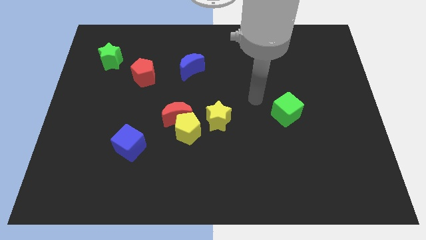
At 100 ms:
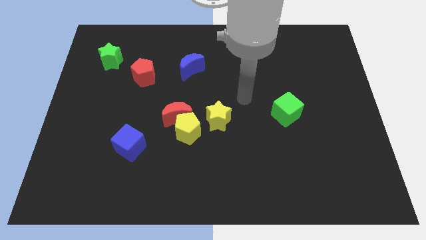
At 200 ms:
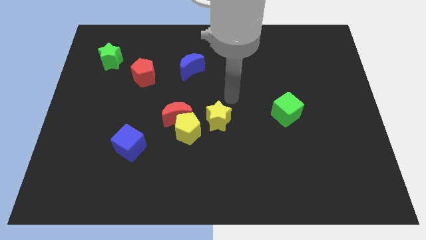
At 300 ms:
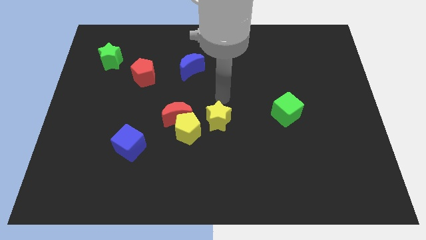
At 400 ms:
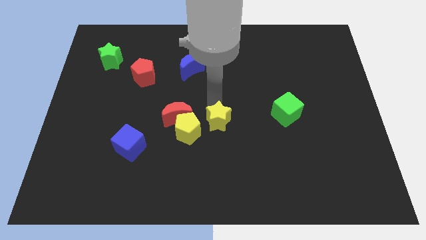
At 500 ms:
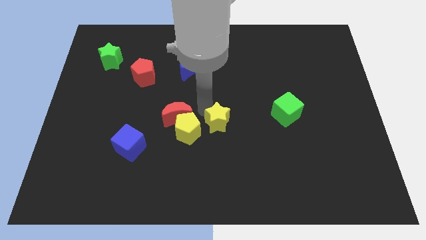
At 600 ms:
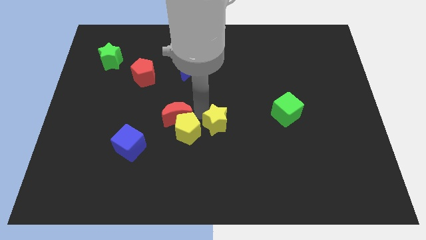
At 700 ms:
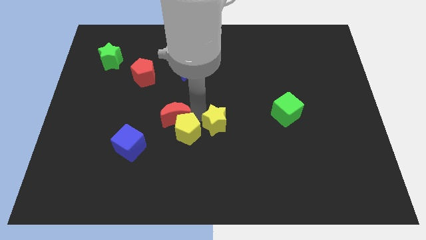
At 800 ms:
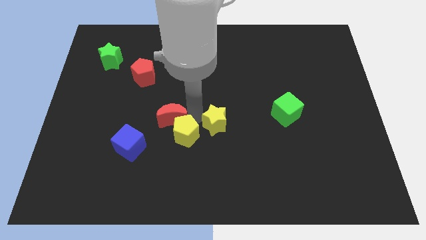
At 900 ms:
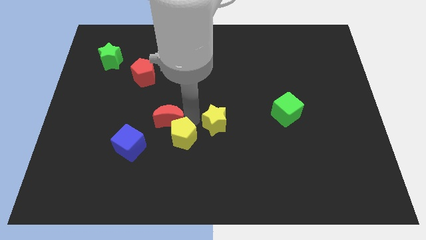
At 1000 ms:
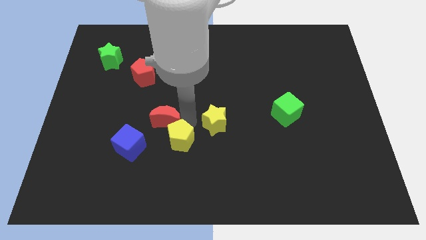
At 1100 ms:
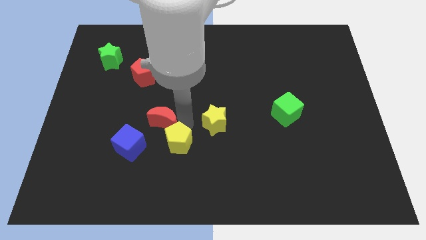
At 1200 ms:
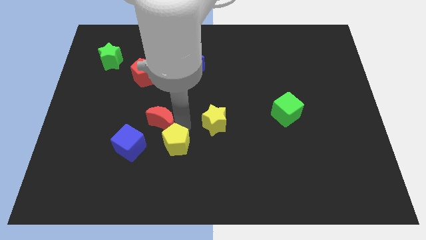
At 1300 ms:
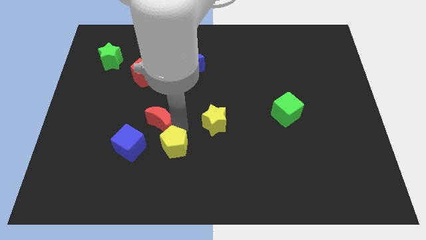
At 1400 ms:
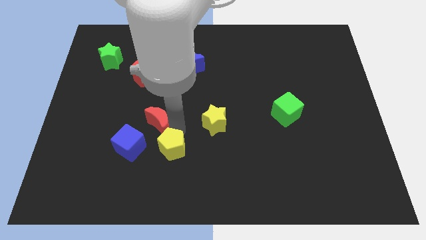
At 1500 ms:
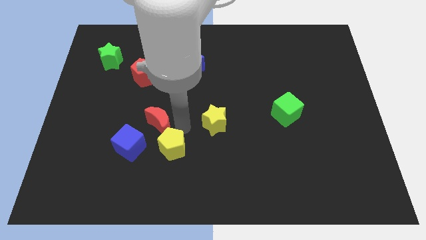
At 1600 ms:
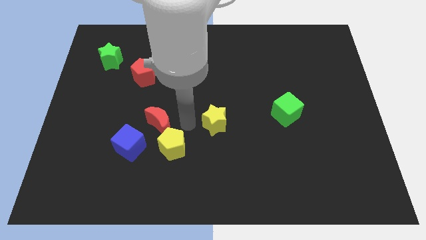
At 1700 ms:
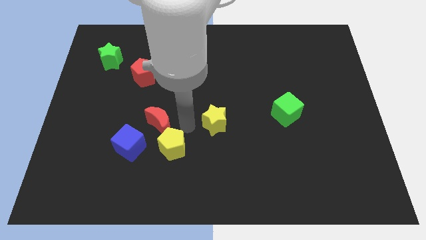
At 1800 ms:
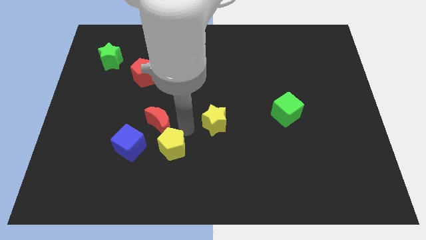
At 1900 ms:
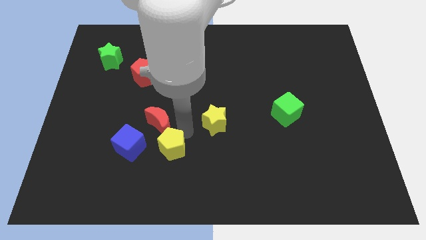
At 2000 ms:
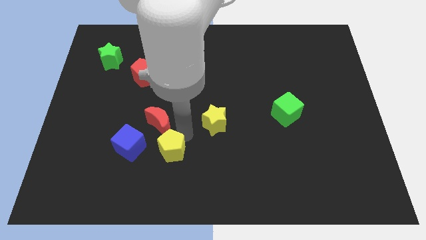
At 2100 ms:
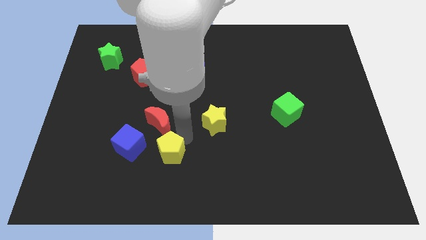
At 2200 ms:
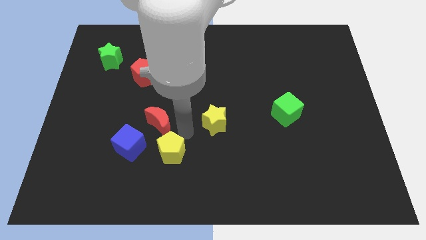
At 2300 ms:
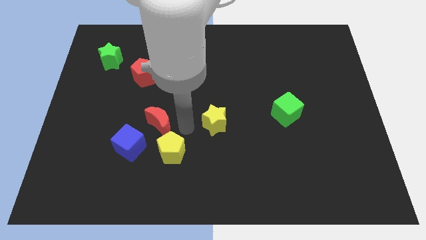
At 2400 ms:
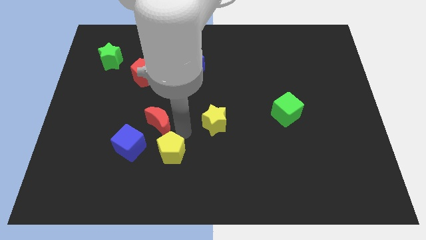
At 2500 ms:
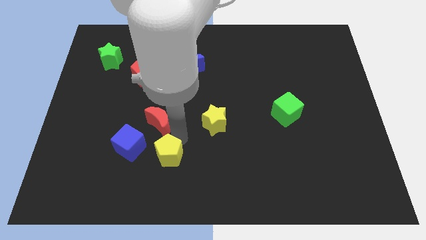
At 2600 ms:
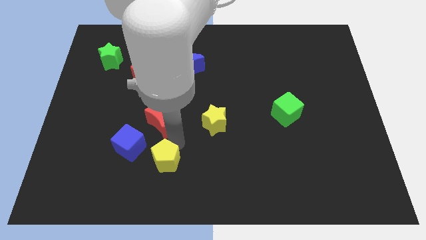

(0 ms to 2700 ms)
move the yellow pentagon away from the red moon and yellow star

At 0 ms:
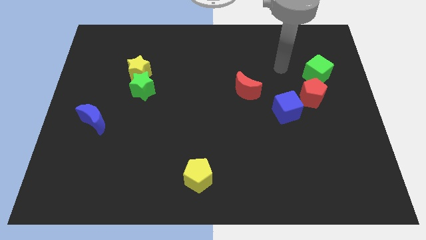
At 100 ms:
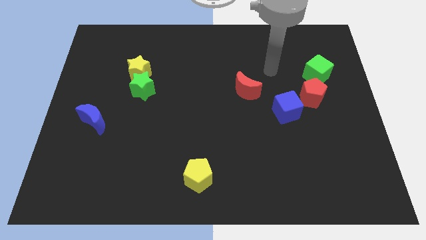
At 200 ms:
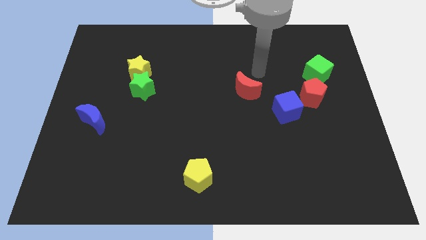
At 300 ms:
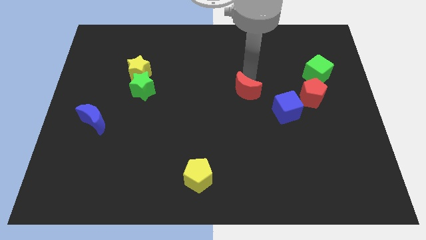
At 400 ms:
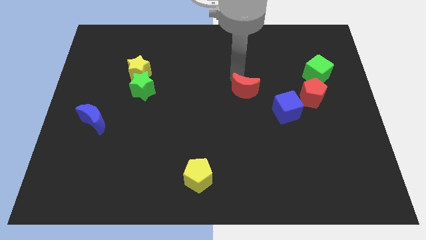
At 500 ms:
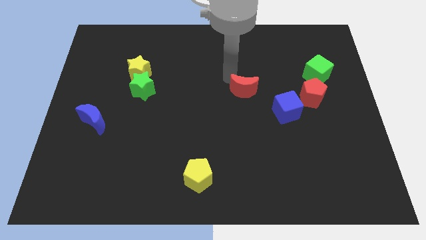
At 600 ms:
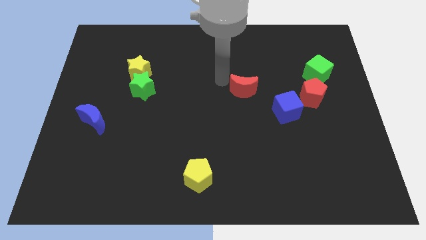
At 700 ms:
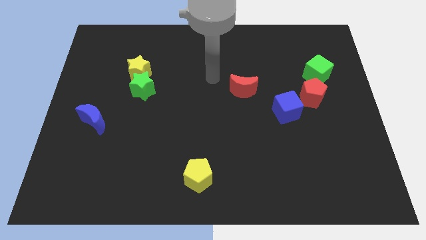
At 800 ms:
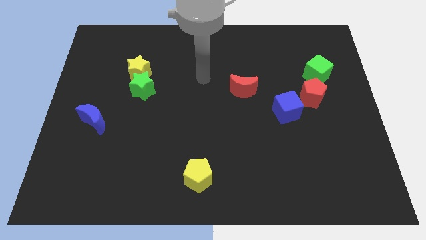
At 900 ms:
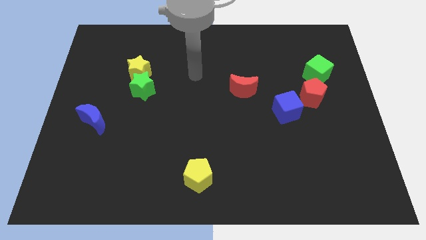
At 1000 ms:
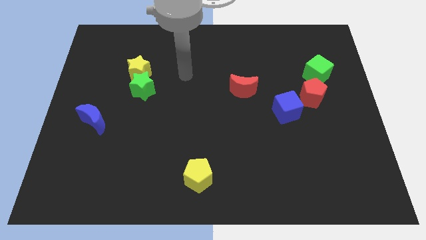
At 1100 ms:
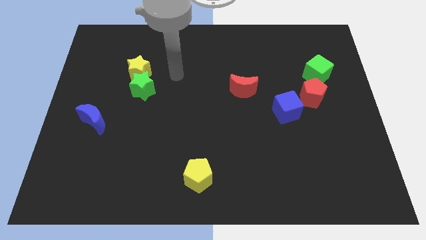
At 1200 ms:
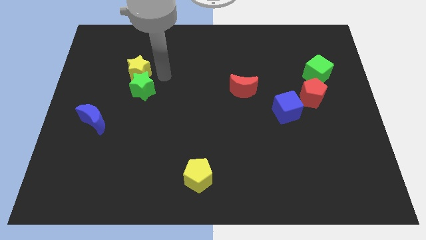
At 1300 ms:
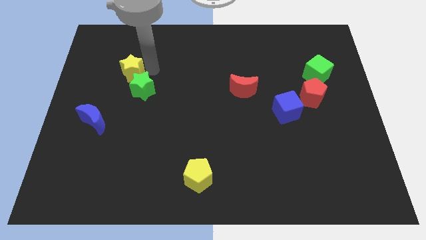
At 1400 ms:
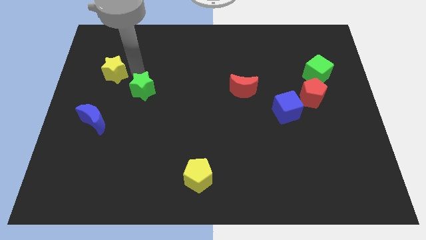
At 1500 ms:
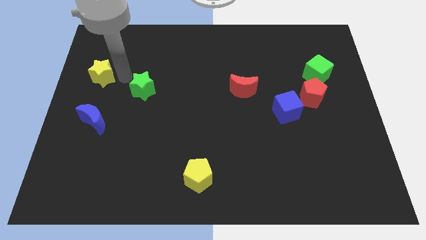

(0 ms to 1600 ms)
pull the green star apart from the yellow star

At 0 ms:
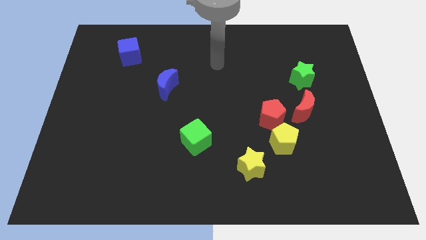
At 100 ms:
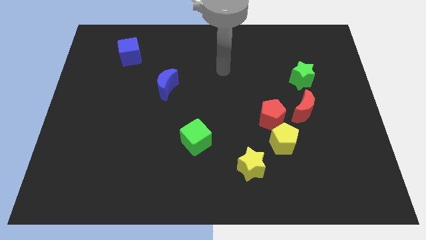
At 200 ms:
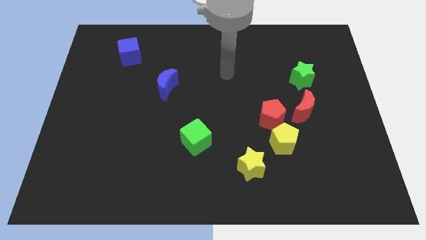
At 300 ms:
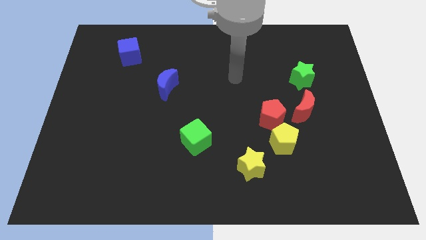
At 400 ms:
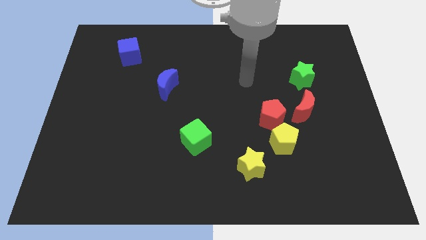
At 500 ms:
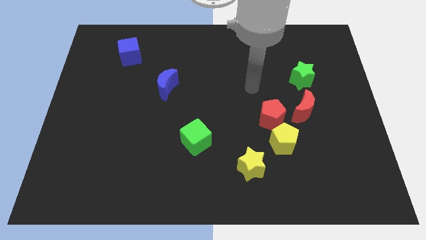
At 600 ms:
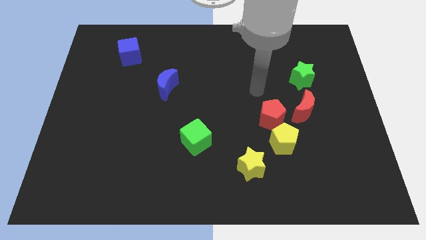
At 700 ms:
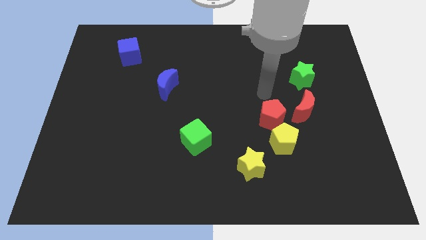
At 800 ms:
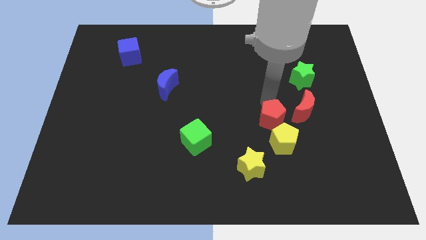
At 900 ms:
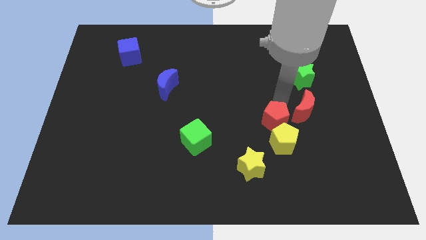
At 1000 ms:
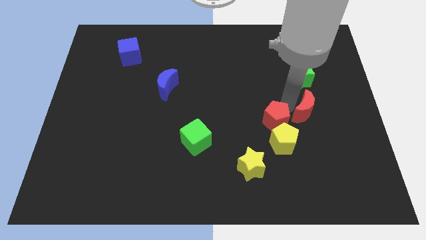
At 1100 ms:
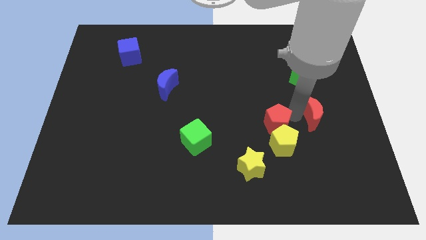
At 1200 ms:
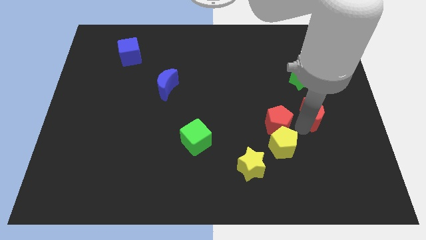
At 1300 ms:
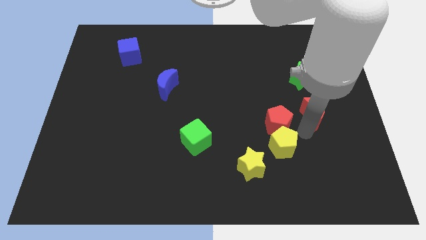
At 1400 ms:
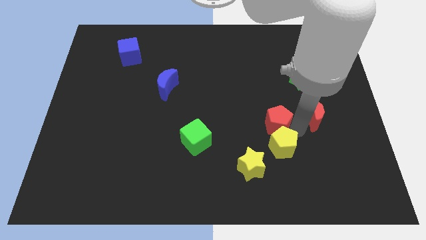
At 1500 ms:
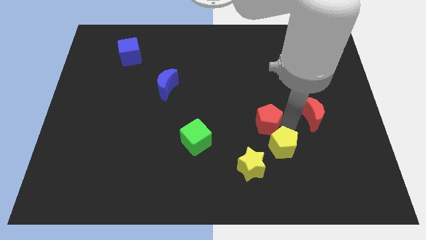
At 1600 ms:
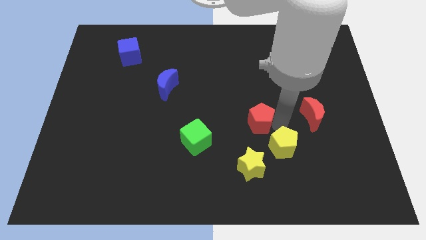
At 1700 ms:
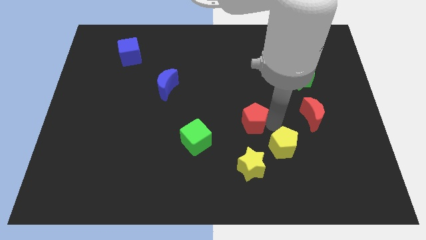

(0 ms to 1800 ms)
move the red pentagon away from the yellow pentagon and red moon

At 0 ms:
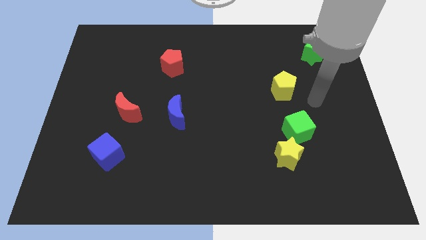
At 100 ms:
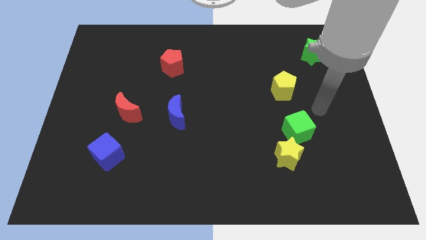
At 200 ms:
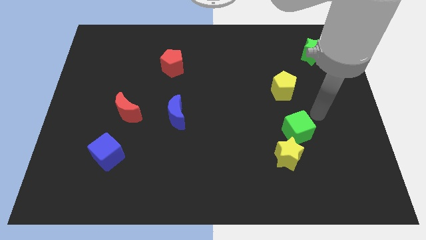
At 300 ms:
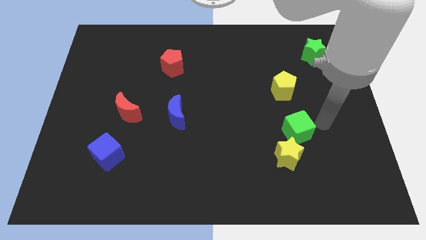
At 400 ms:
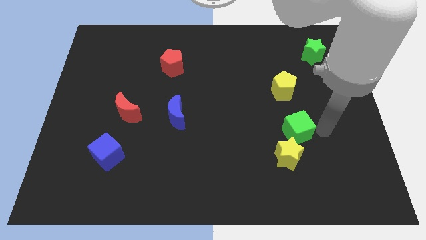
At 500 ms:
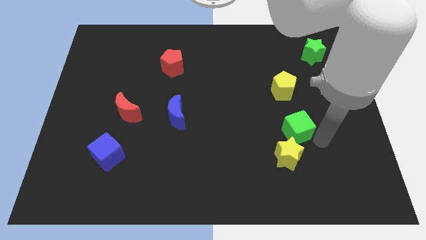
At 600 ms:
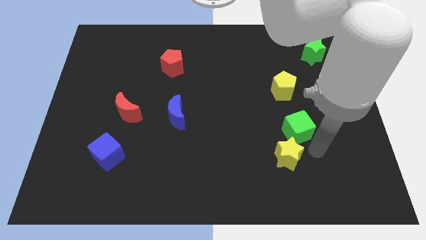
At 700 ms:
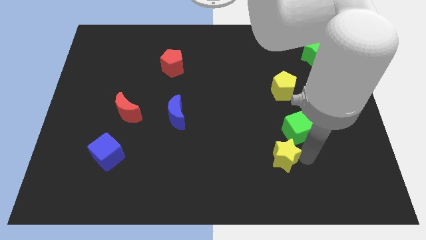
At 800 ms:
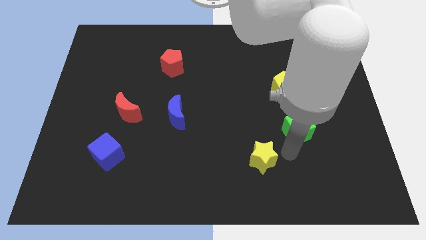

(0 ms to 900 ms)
move the green cube away from the yellow star

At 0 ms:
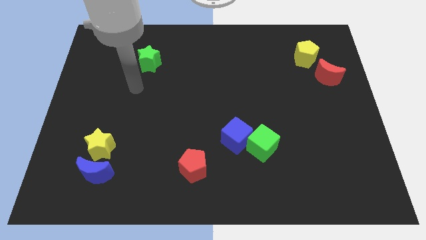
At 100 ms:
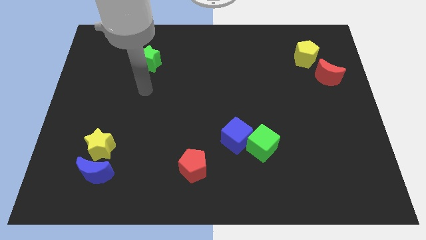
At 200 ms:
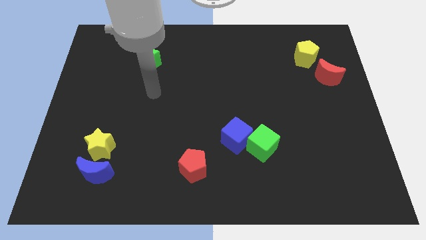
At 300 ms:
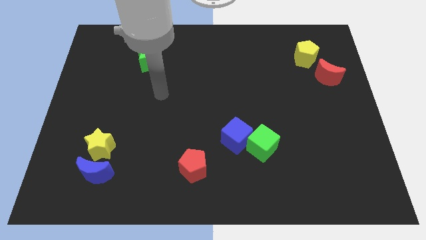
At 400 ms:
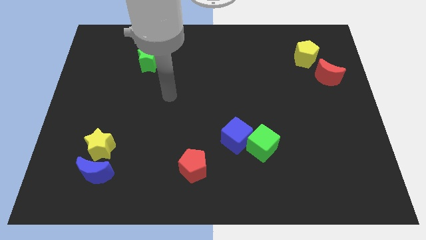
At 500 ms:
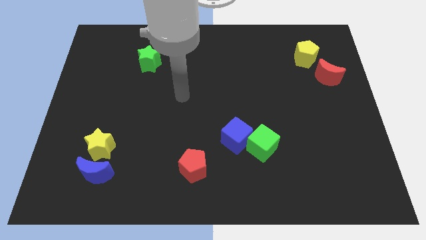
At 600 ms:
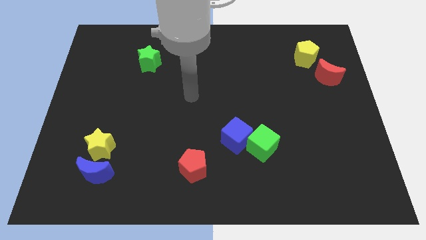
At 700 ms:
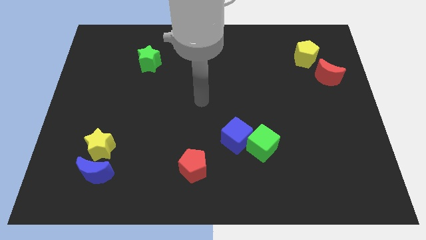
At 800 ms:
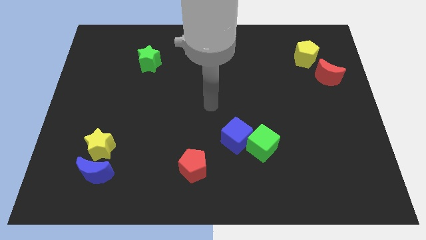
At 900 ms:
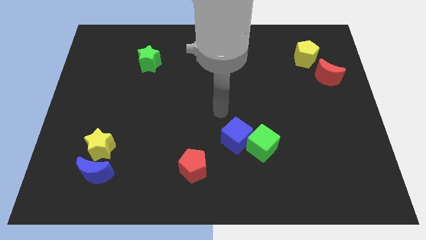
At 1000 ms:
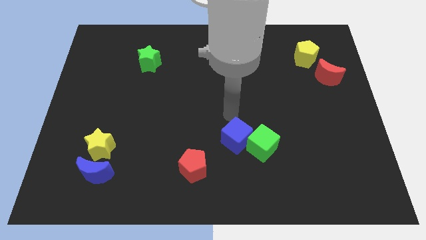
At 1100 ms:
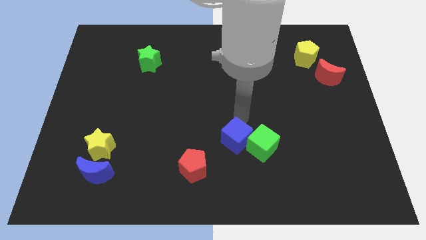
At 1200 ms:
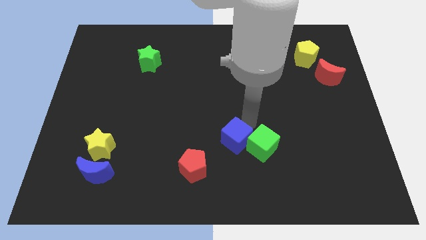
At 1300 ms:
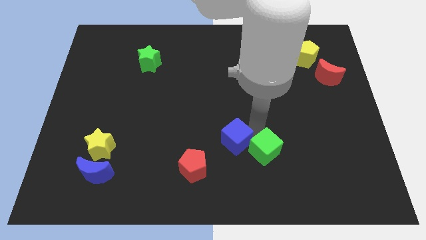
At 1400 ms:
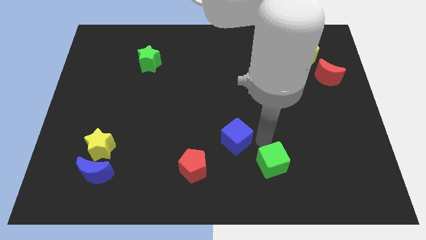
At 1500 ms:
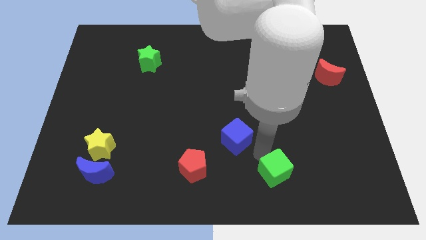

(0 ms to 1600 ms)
pull the blue cube apart from the green cube

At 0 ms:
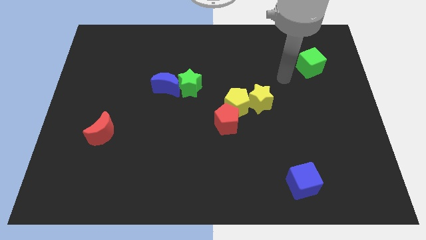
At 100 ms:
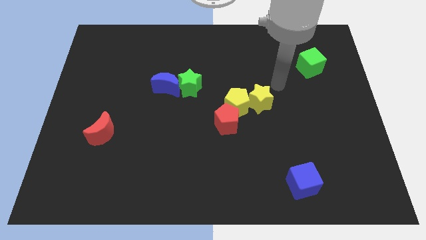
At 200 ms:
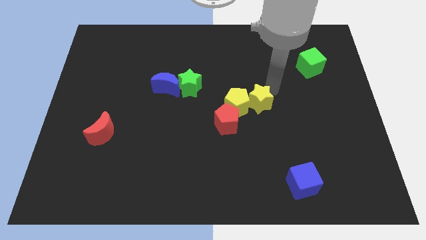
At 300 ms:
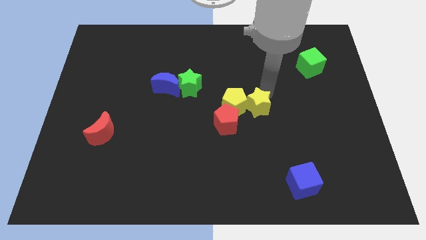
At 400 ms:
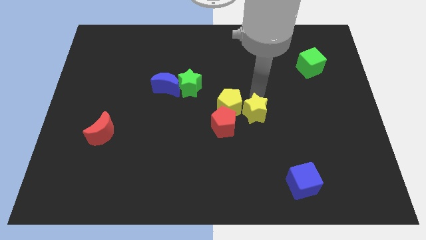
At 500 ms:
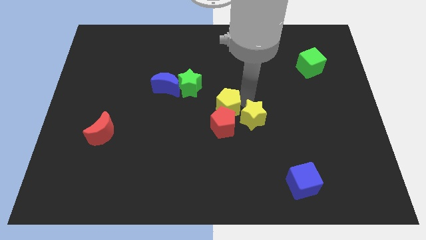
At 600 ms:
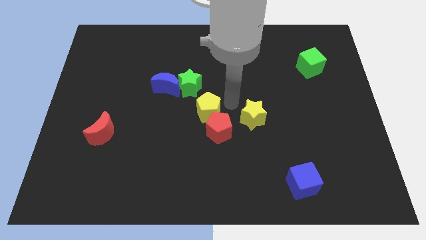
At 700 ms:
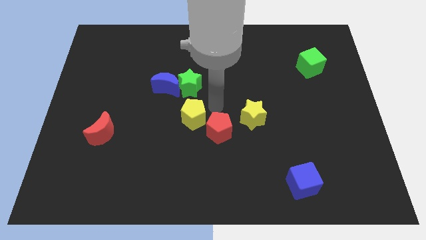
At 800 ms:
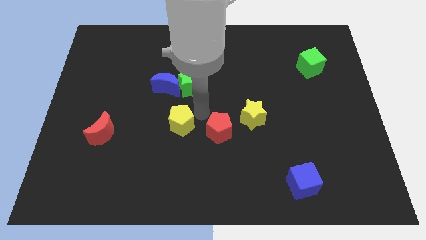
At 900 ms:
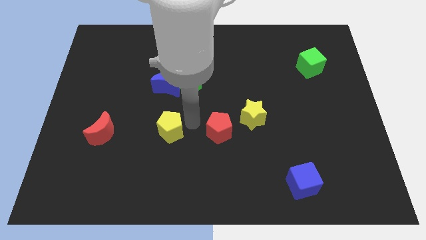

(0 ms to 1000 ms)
pull the red pentagon apart from the yellow pentagon
